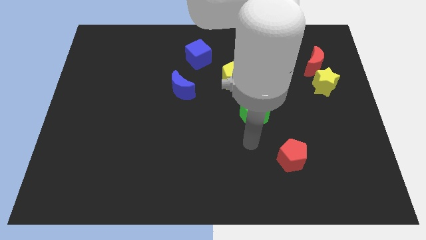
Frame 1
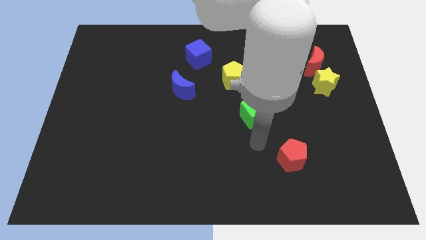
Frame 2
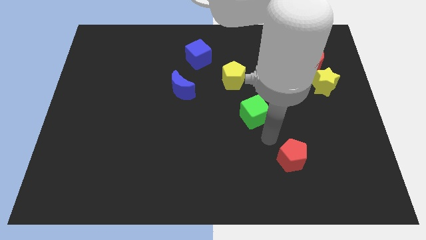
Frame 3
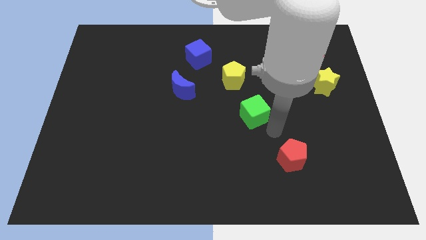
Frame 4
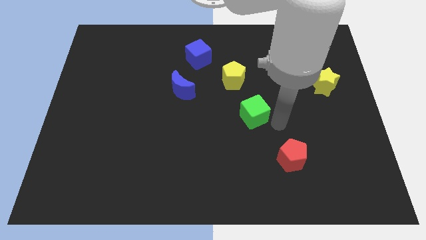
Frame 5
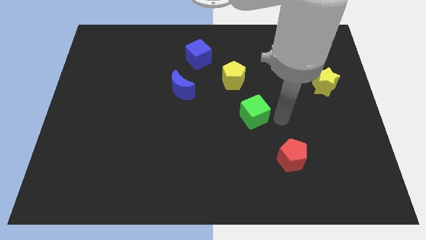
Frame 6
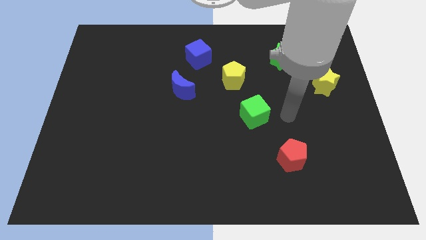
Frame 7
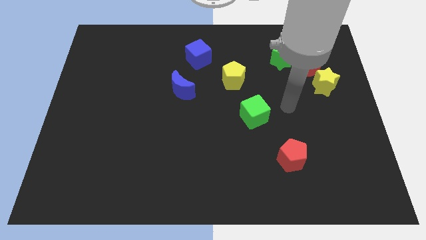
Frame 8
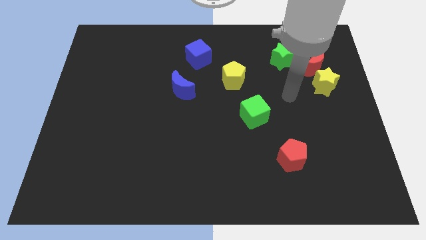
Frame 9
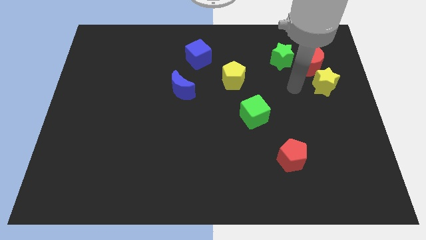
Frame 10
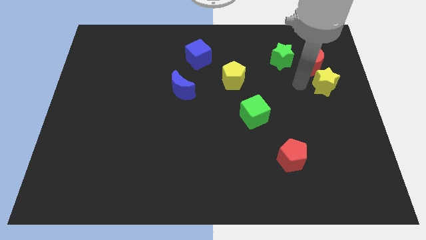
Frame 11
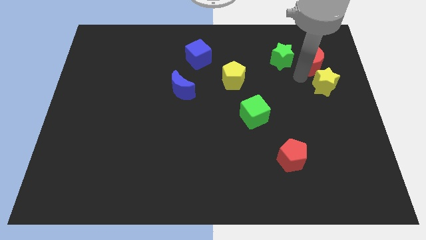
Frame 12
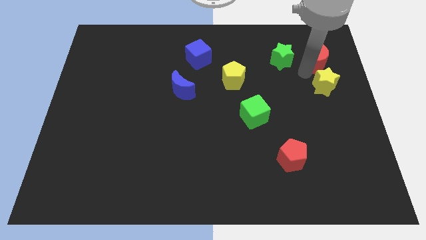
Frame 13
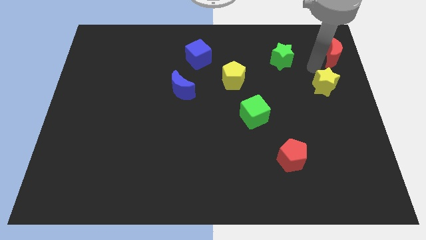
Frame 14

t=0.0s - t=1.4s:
separate the yellow star from the red moon

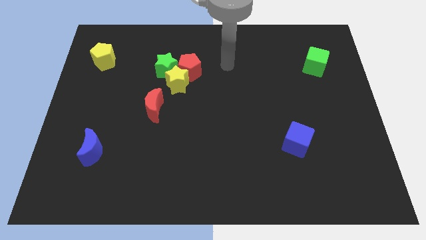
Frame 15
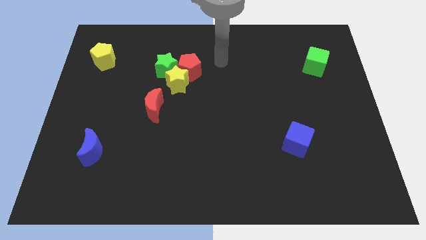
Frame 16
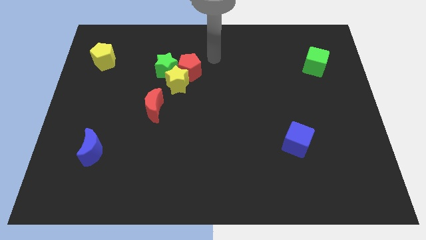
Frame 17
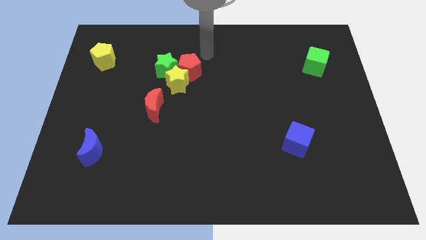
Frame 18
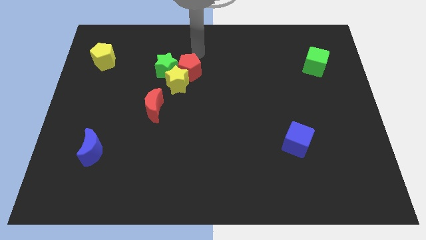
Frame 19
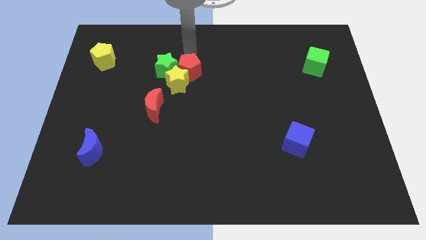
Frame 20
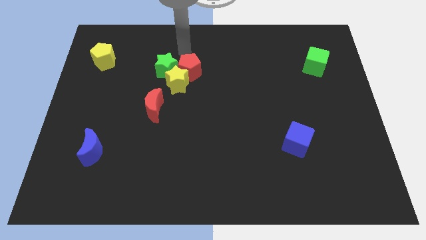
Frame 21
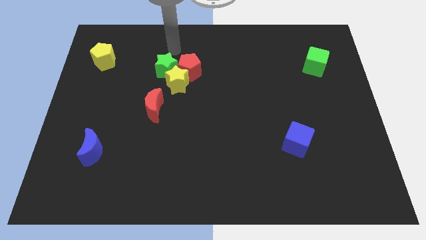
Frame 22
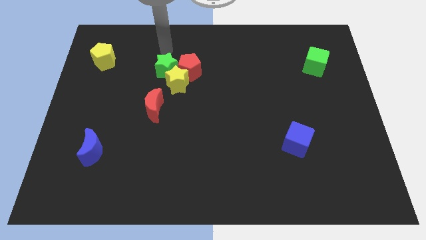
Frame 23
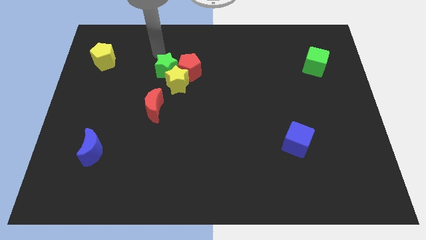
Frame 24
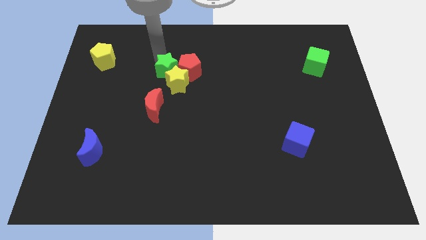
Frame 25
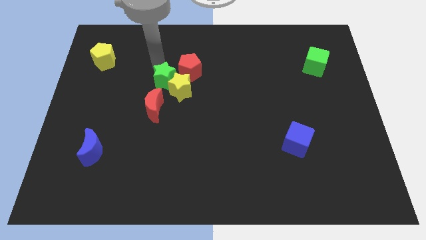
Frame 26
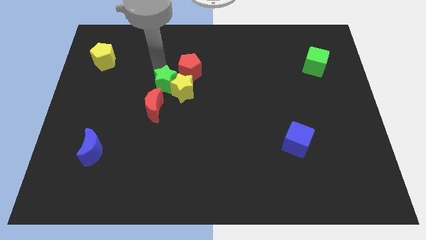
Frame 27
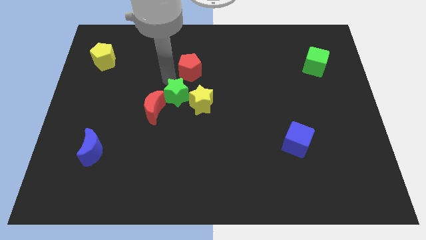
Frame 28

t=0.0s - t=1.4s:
move the red pentagon away from the yellow star and green star

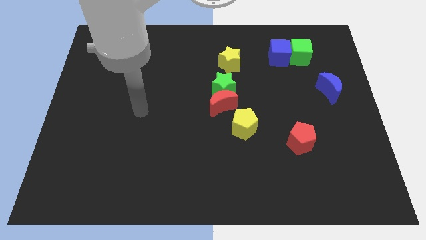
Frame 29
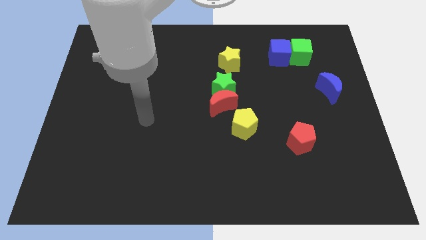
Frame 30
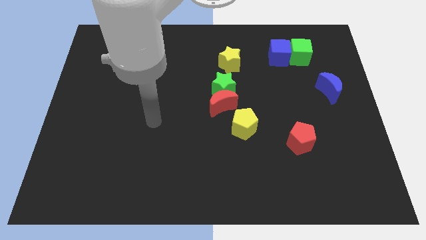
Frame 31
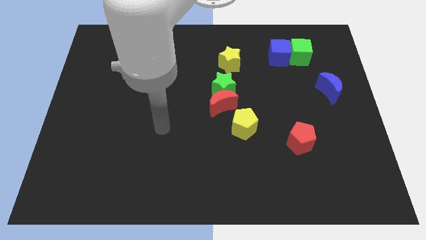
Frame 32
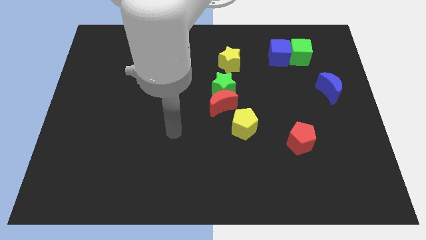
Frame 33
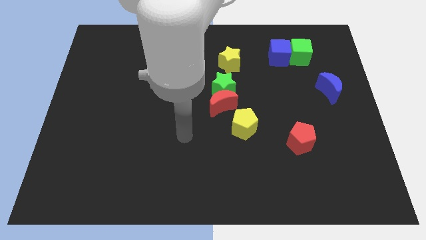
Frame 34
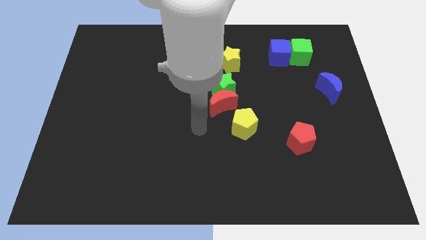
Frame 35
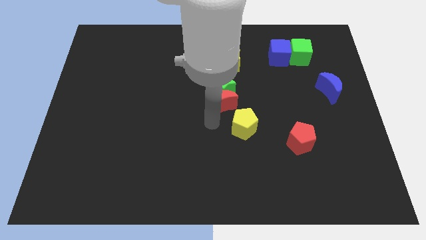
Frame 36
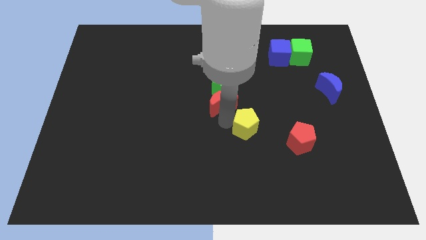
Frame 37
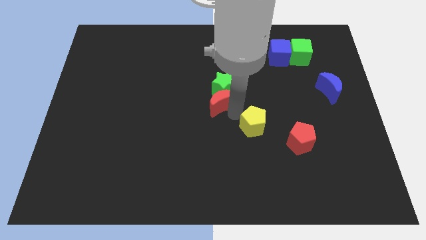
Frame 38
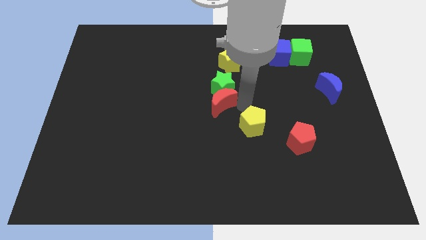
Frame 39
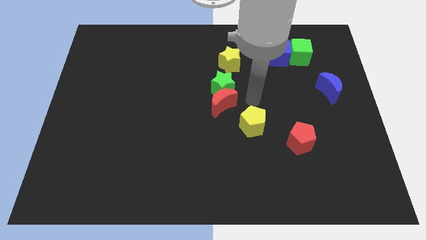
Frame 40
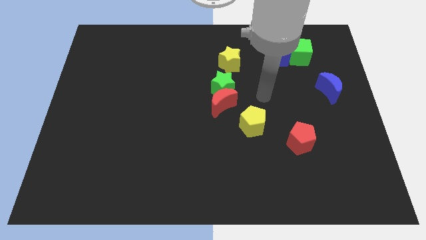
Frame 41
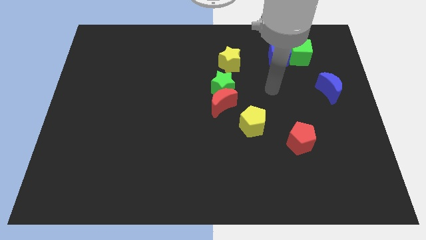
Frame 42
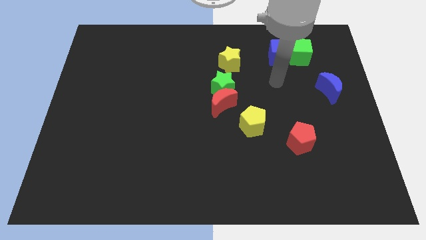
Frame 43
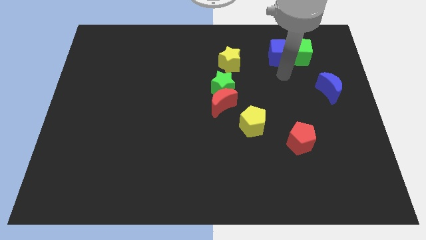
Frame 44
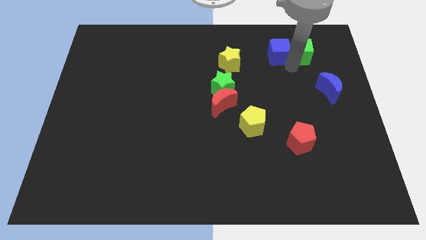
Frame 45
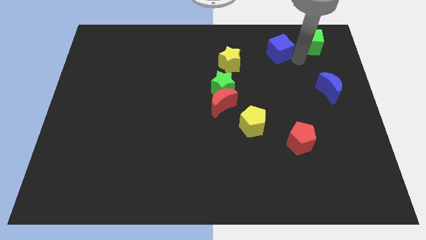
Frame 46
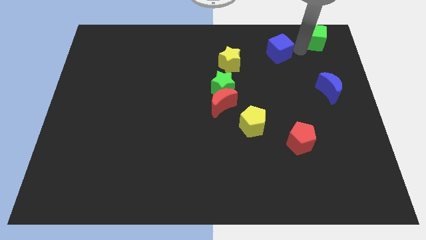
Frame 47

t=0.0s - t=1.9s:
pull the blue cube apart from the green cube

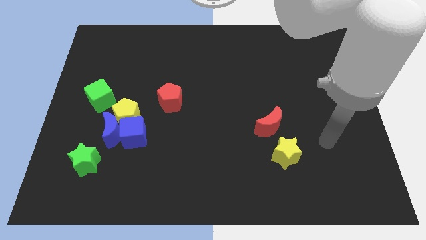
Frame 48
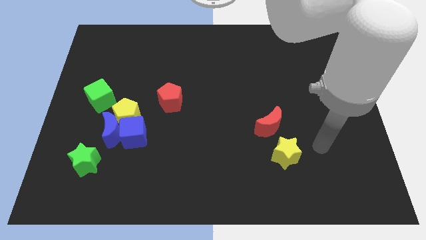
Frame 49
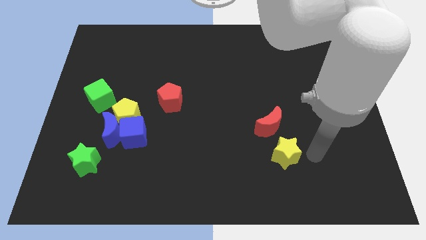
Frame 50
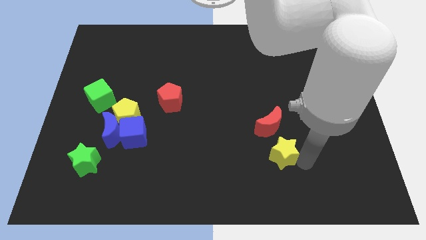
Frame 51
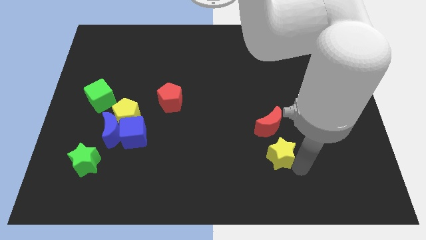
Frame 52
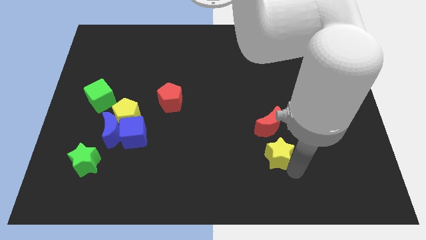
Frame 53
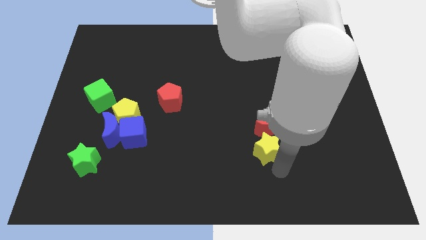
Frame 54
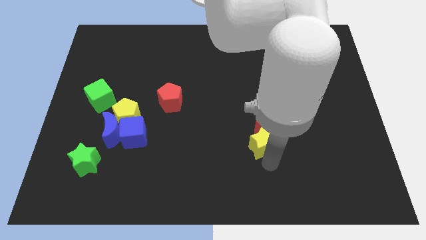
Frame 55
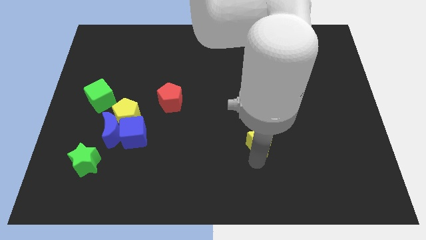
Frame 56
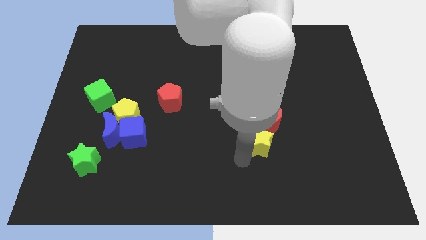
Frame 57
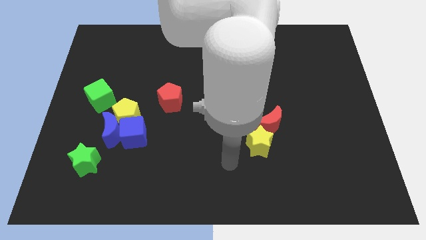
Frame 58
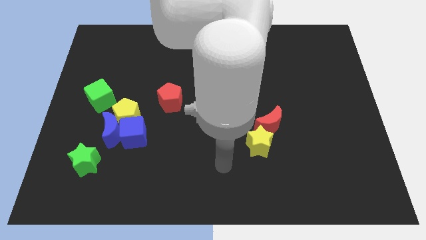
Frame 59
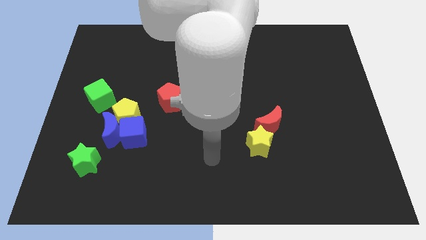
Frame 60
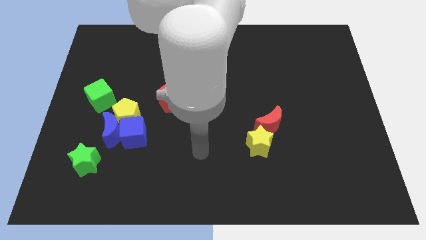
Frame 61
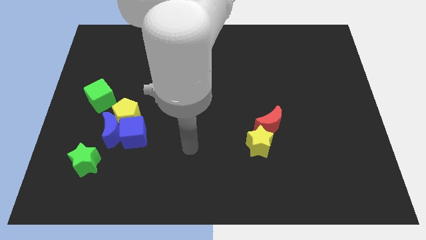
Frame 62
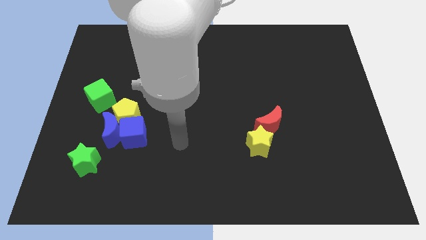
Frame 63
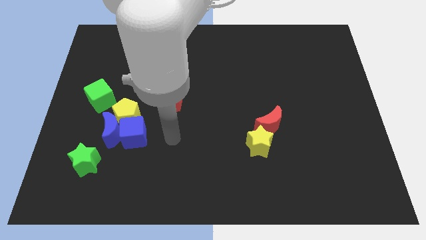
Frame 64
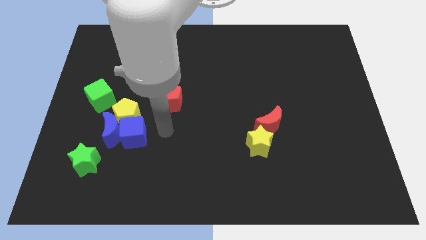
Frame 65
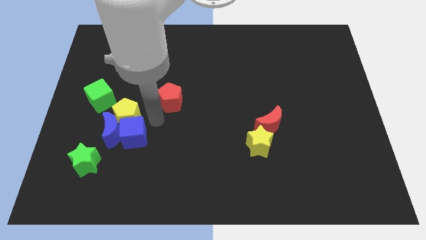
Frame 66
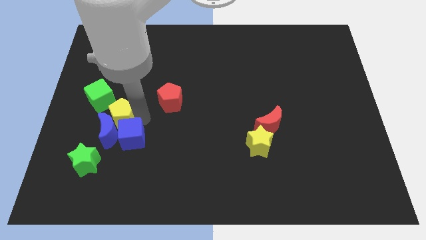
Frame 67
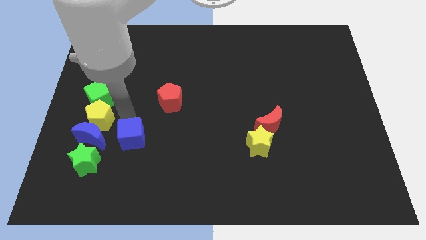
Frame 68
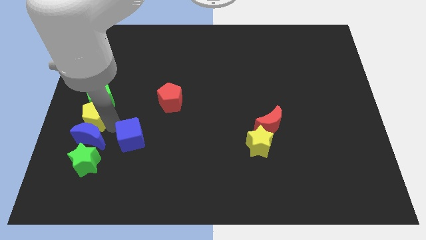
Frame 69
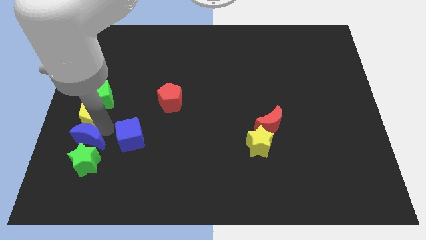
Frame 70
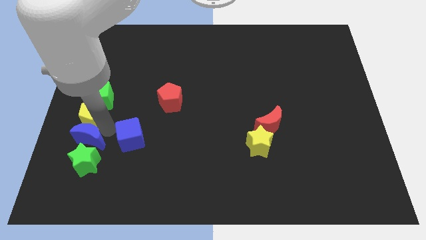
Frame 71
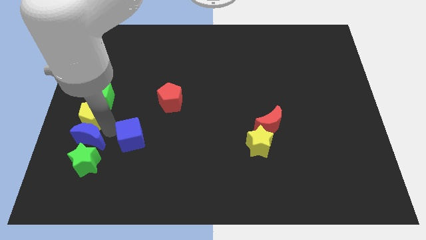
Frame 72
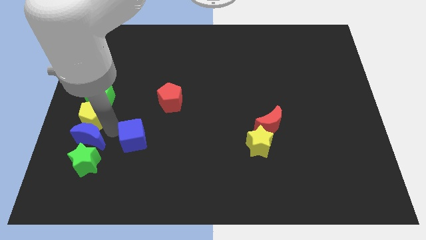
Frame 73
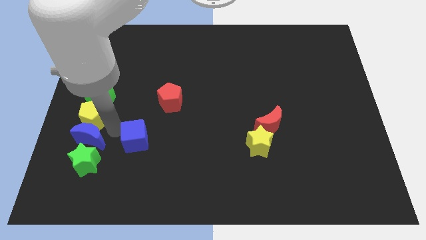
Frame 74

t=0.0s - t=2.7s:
move the blue cube away from the blue moon and yellow pentagon

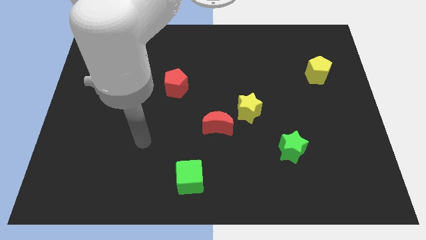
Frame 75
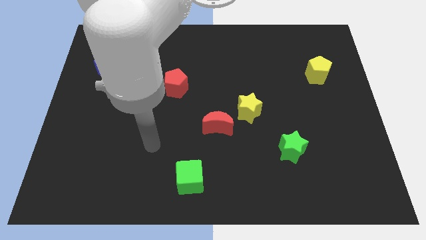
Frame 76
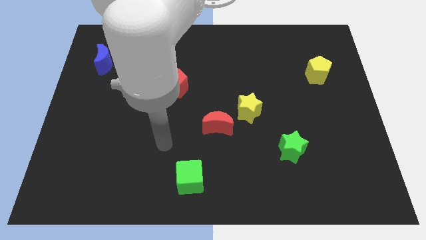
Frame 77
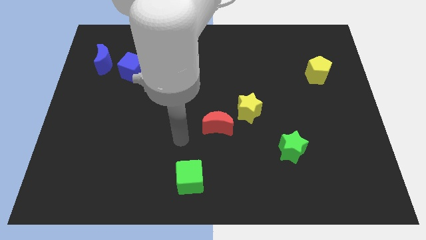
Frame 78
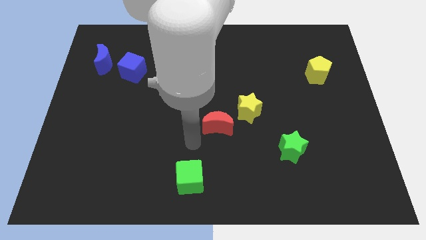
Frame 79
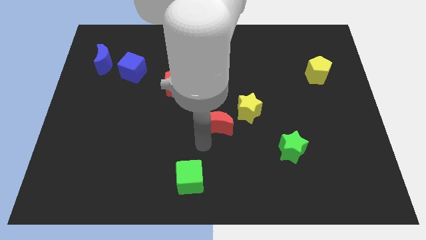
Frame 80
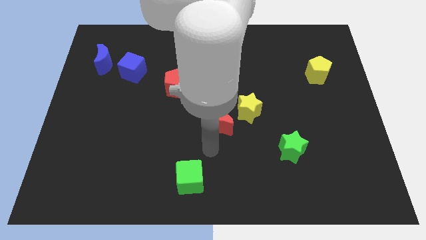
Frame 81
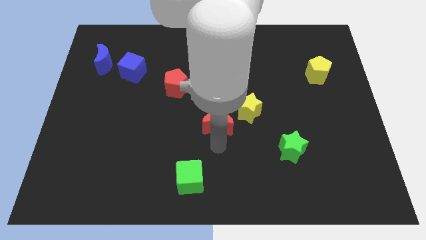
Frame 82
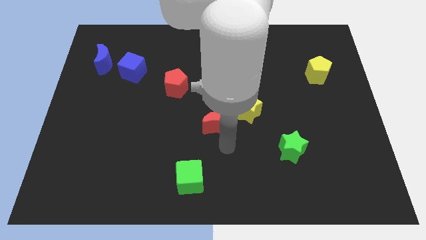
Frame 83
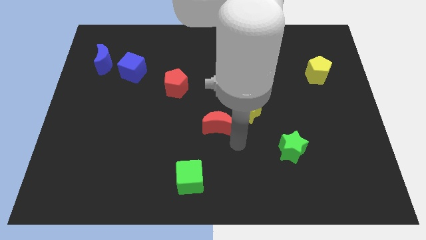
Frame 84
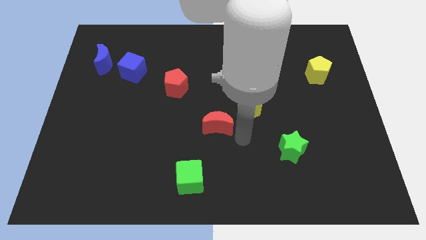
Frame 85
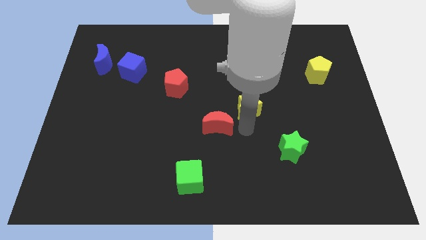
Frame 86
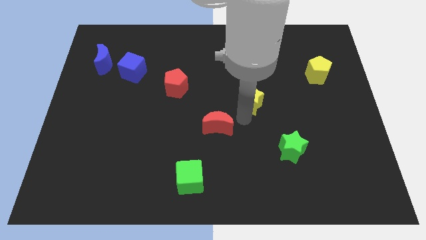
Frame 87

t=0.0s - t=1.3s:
pull the red moon apart from the yellow star

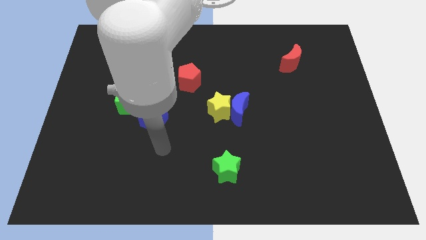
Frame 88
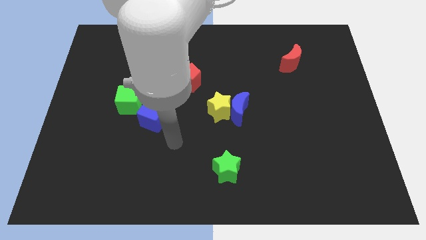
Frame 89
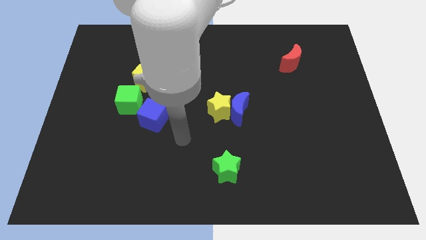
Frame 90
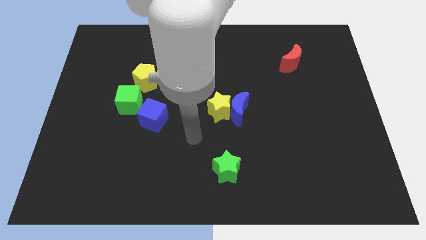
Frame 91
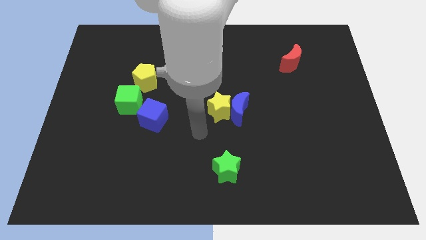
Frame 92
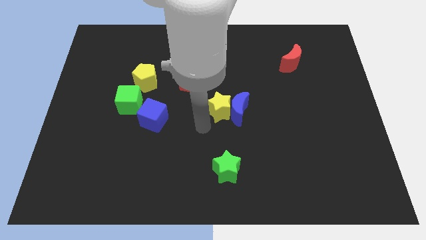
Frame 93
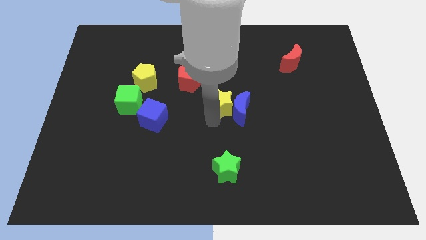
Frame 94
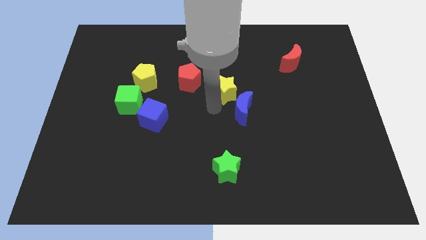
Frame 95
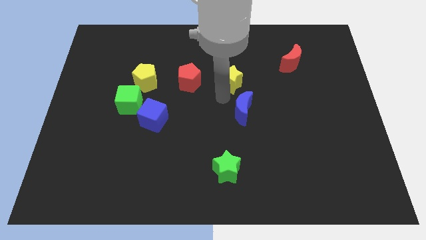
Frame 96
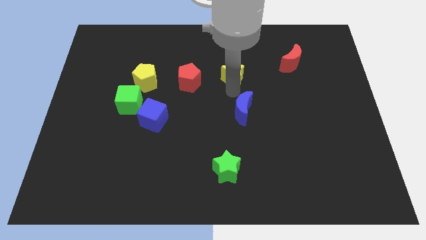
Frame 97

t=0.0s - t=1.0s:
pull the blue moon apart from the yellow star
